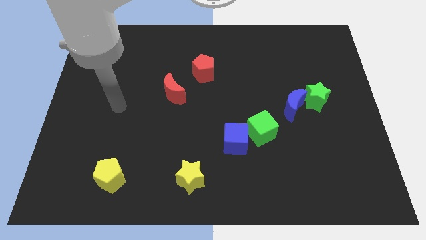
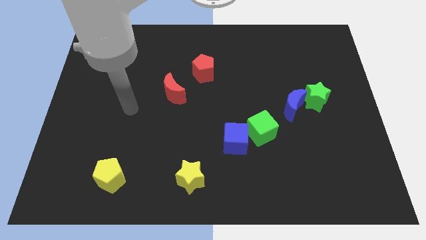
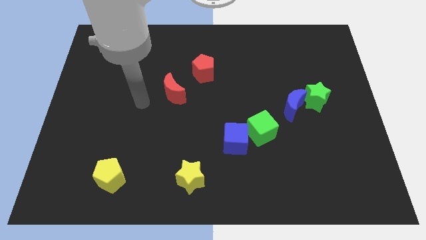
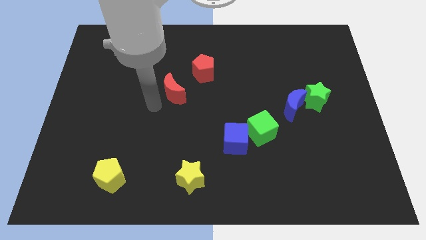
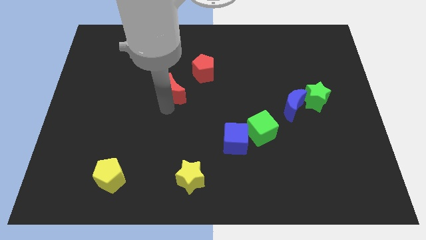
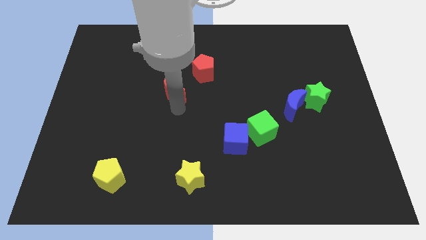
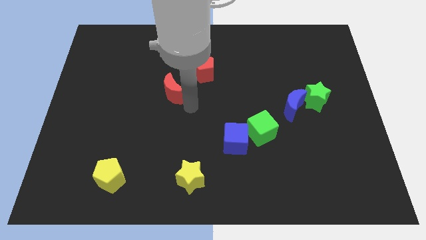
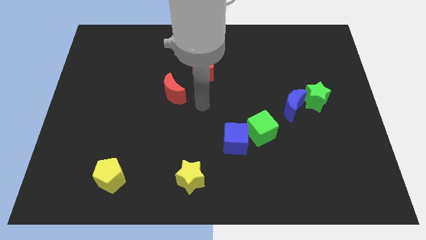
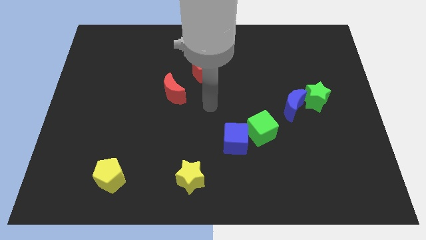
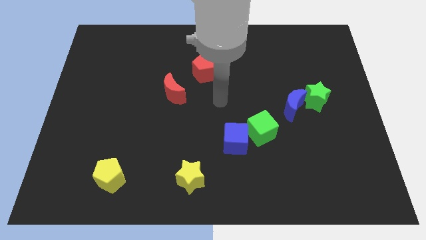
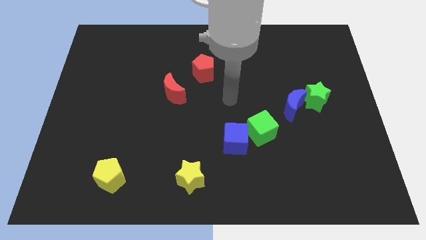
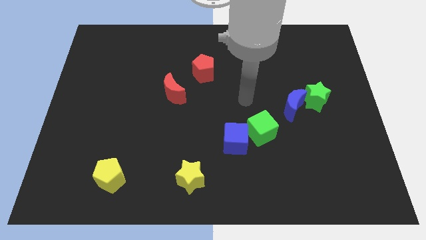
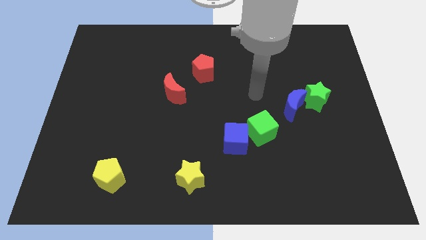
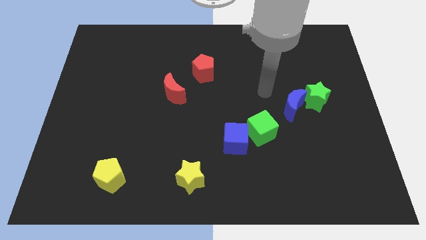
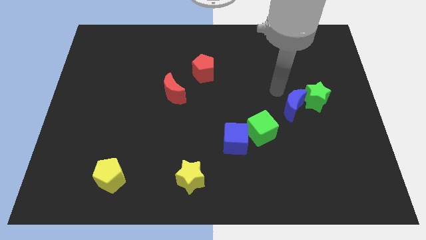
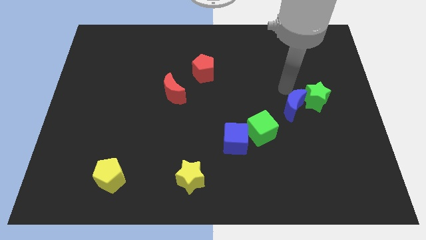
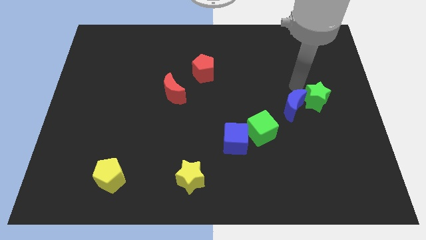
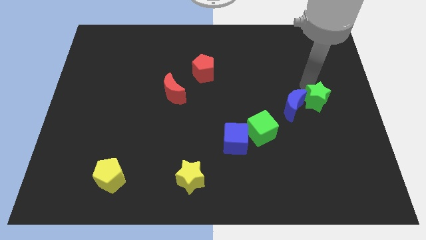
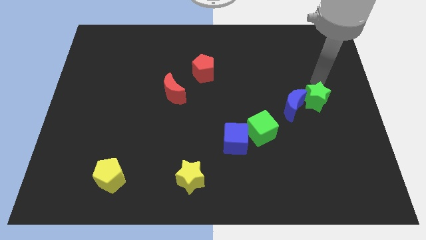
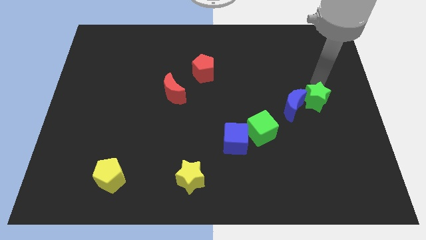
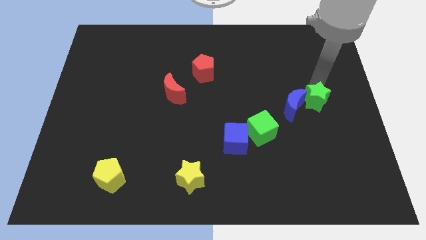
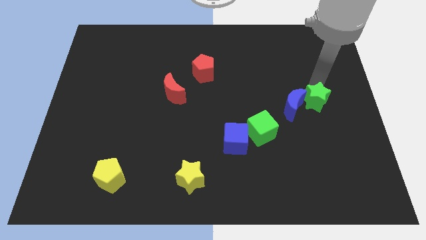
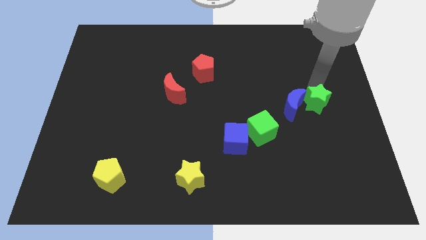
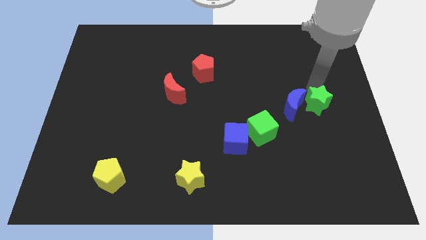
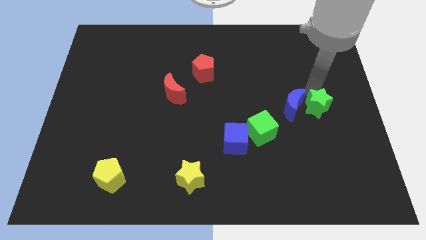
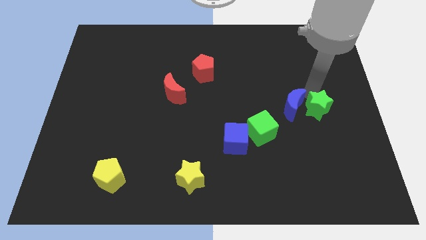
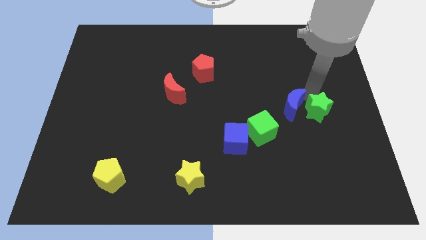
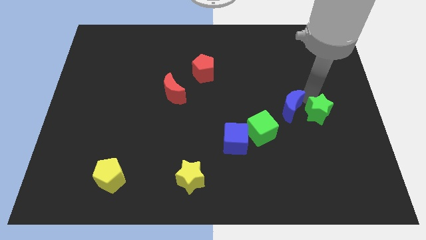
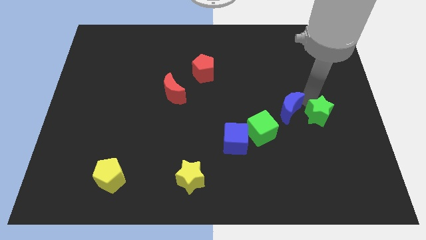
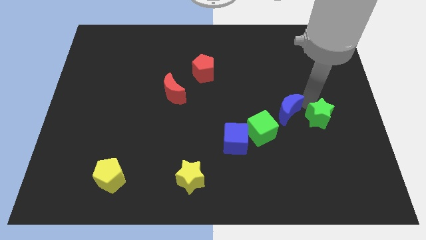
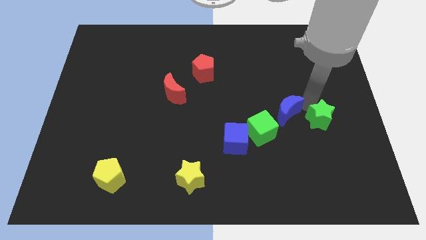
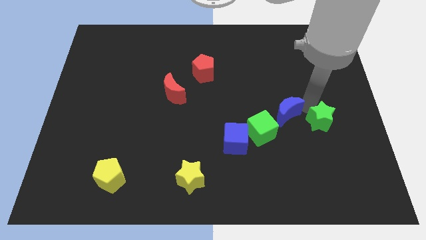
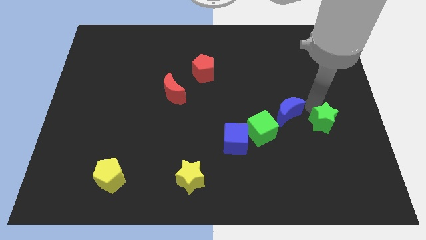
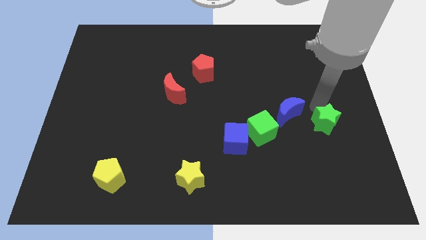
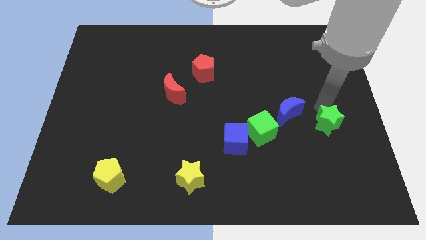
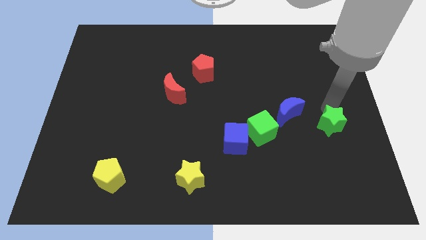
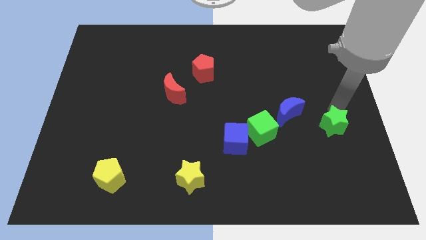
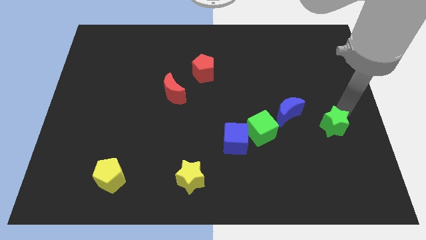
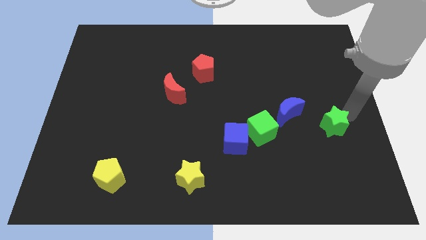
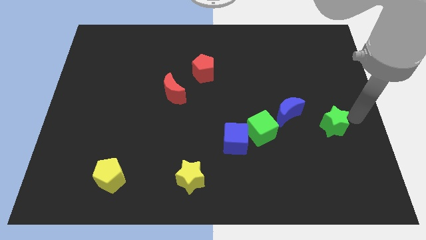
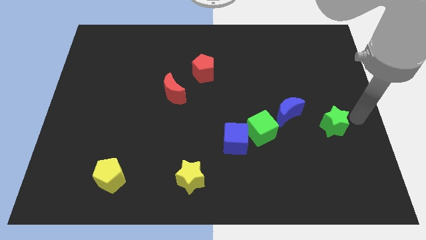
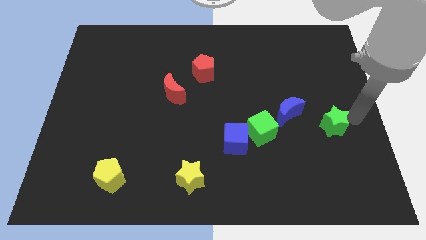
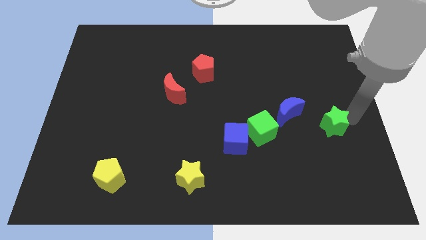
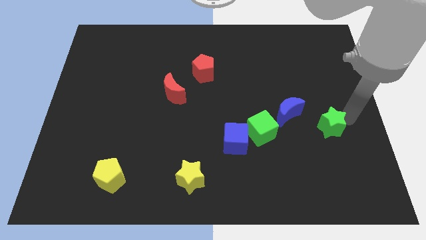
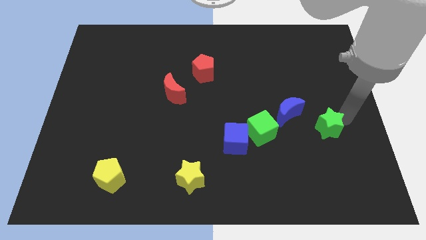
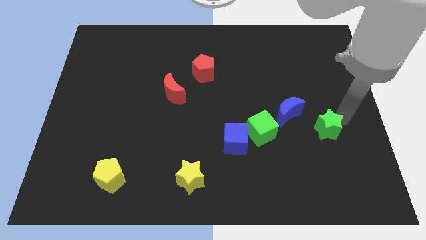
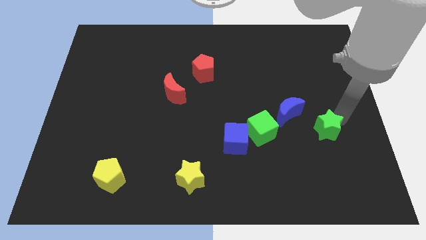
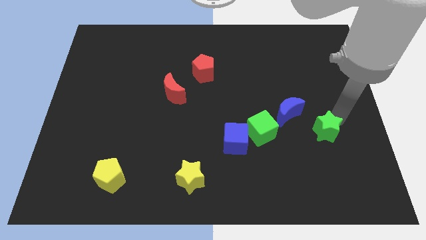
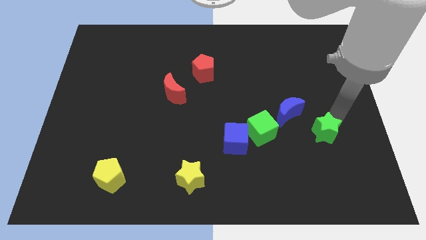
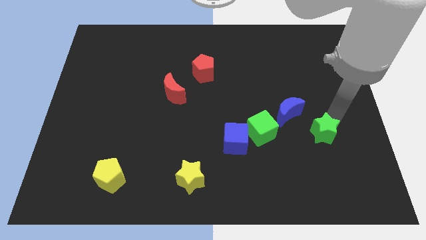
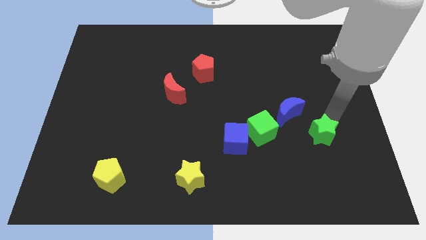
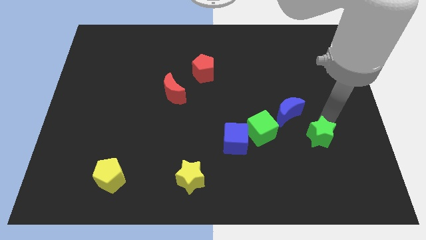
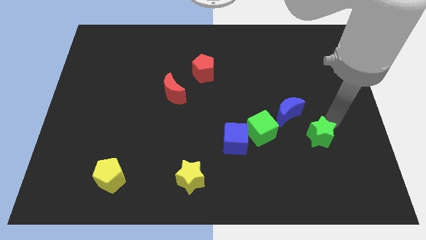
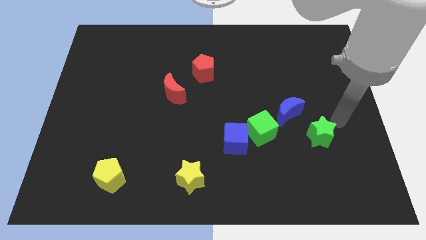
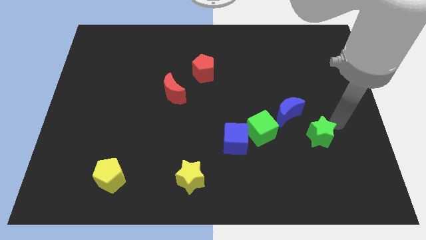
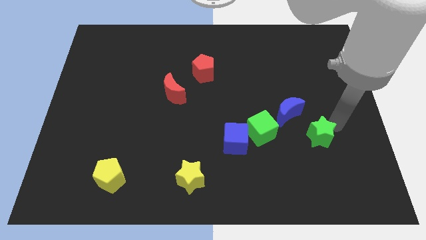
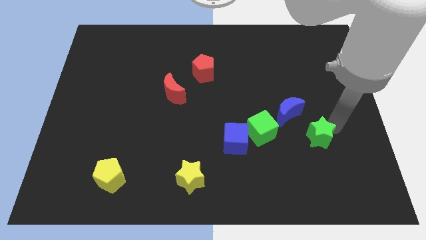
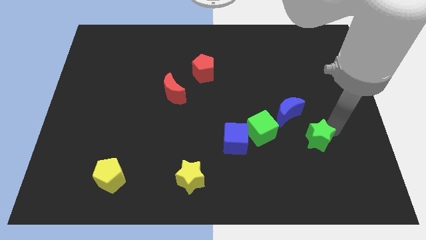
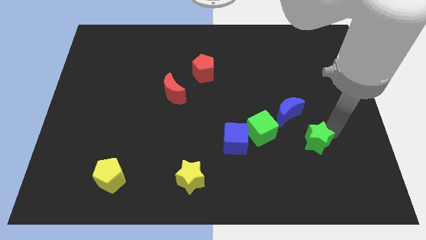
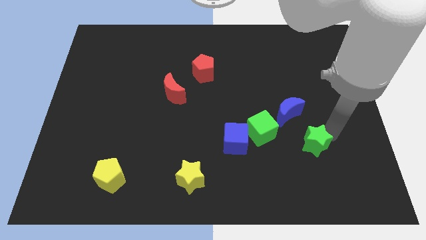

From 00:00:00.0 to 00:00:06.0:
put the green star to the bottom side of the blue moon

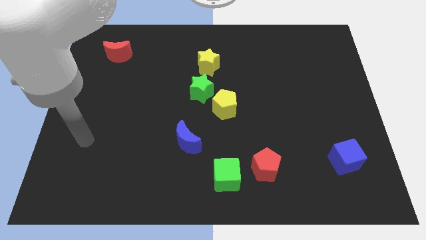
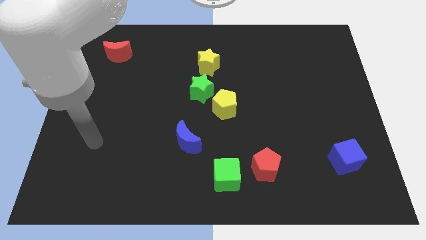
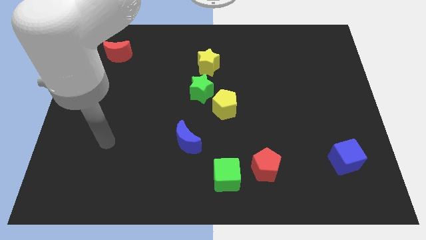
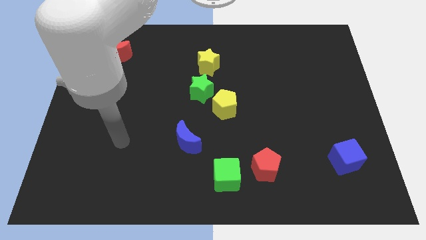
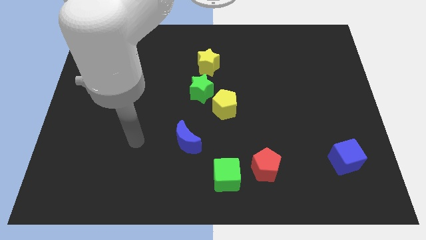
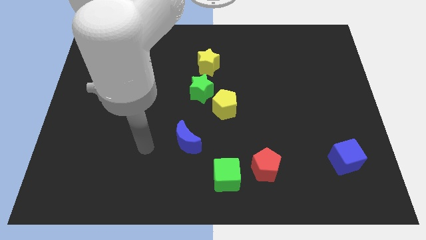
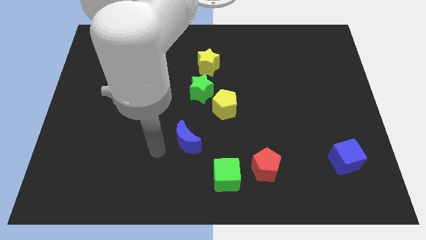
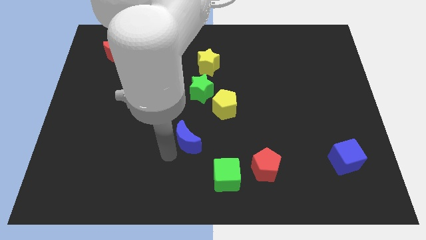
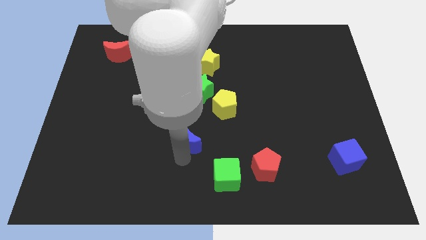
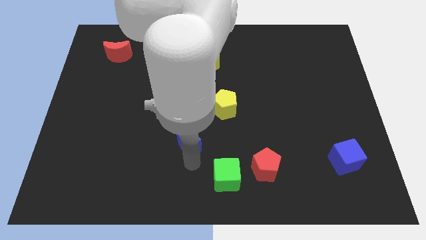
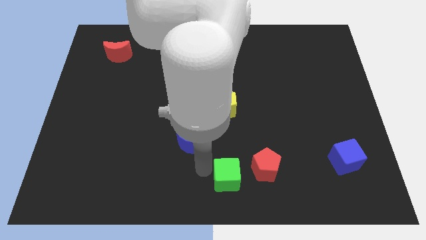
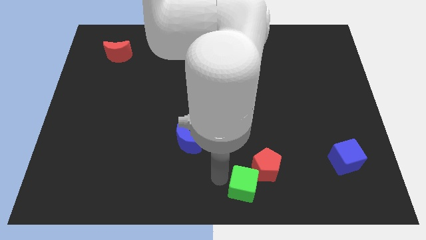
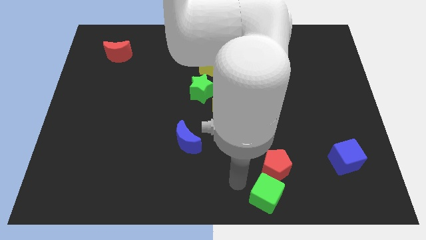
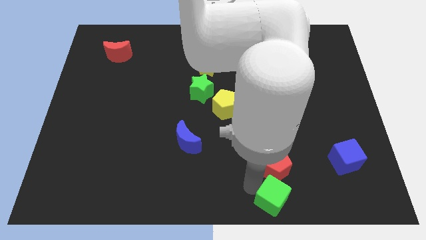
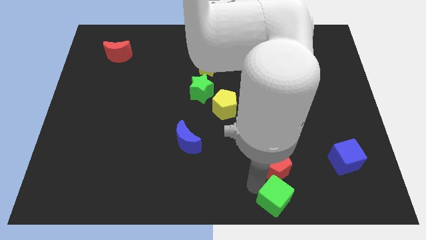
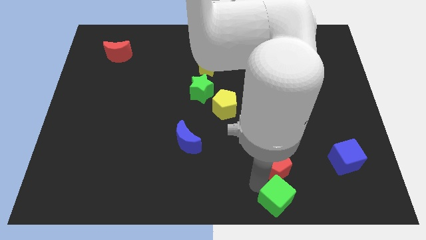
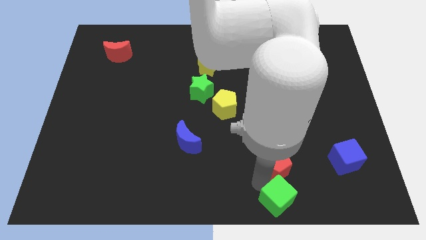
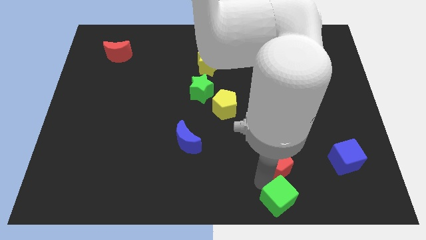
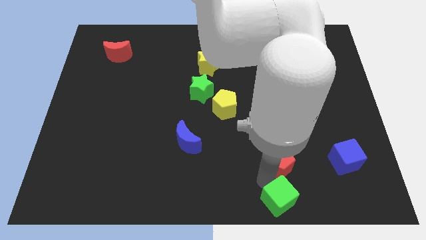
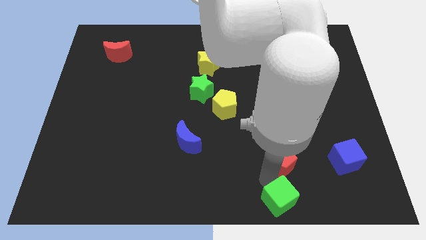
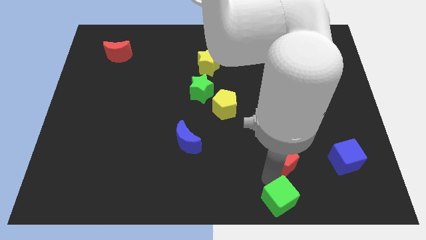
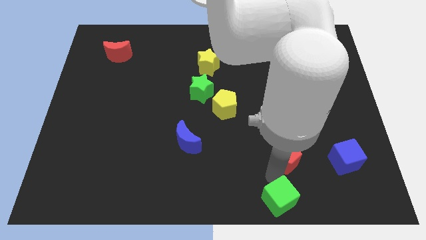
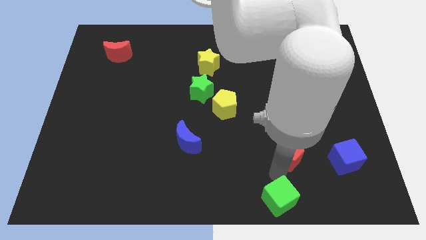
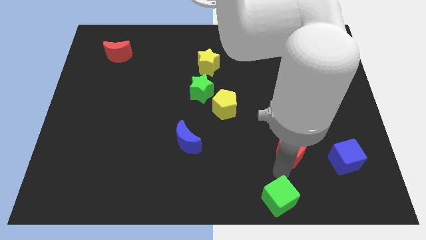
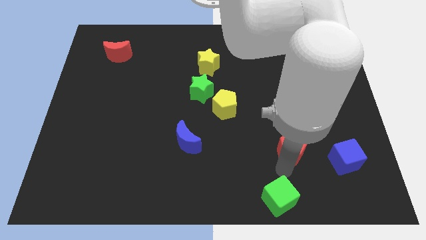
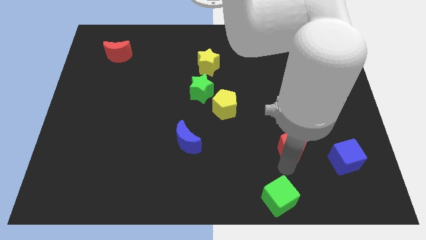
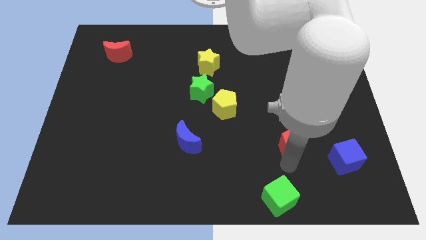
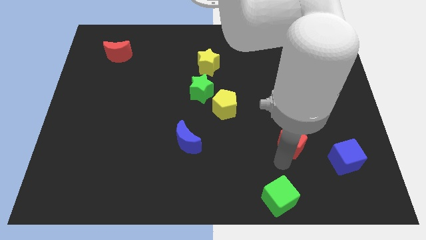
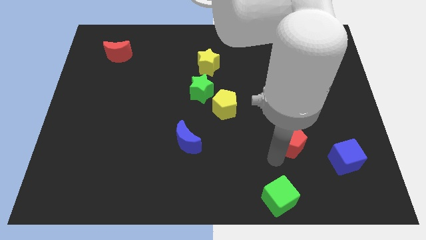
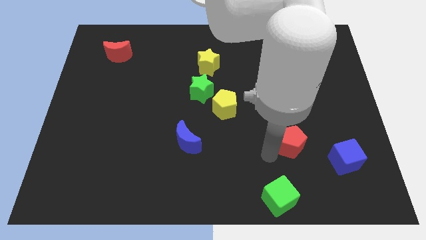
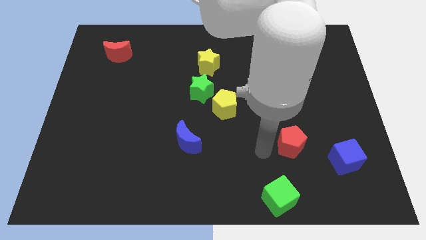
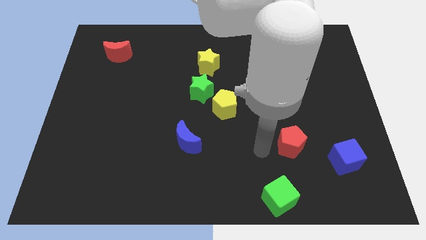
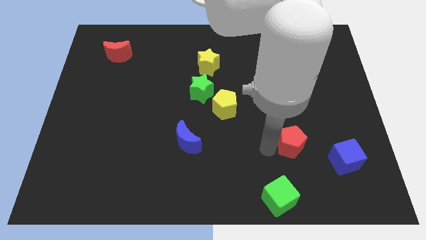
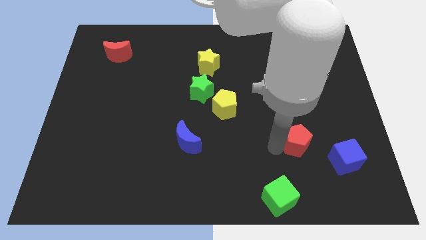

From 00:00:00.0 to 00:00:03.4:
put the red pentagon to the top left side of the blue cube
